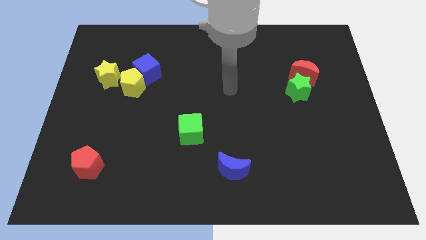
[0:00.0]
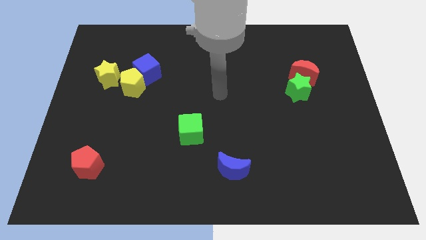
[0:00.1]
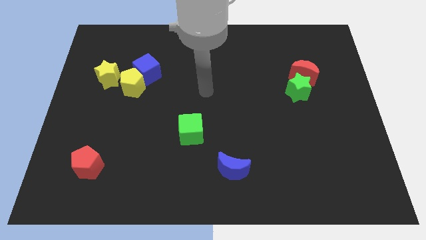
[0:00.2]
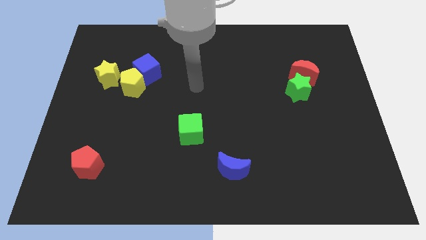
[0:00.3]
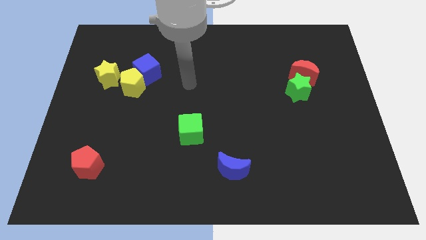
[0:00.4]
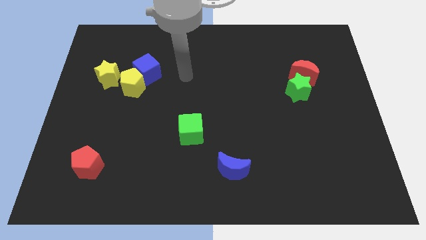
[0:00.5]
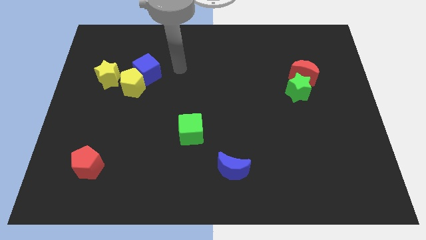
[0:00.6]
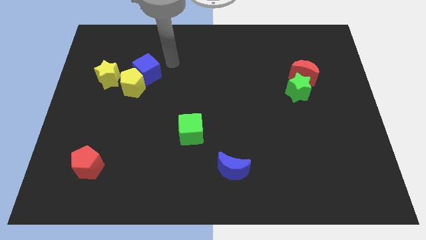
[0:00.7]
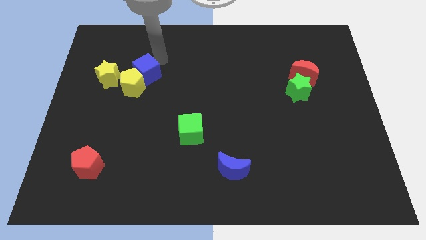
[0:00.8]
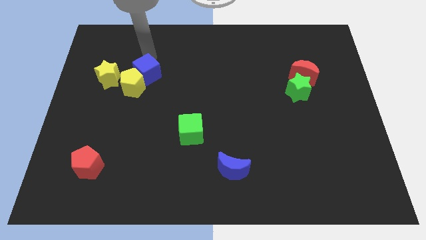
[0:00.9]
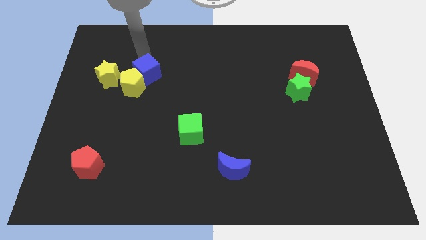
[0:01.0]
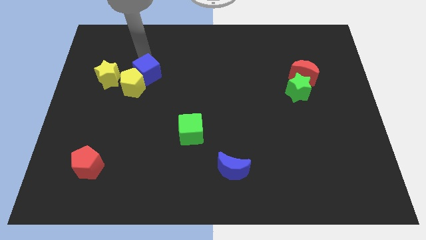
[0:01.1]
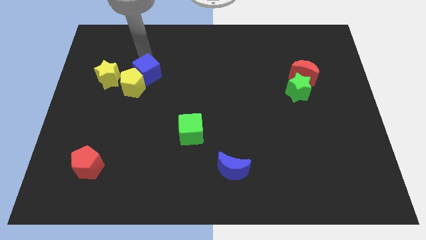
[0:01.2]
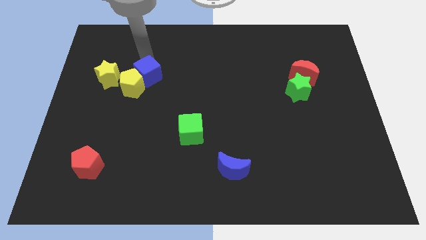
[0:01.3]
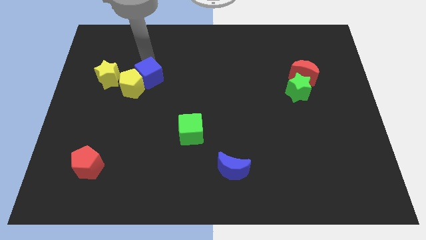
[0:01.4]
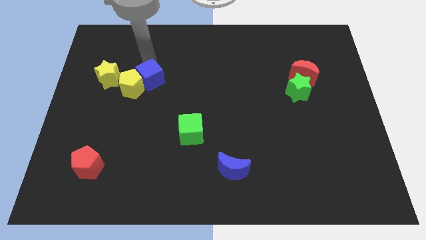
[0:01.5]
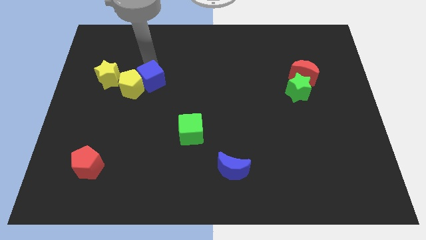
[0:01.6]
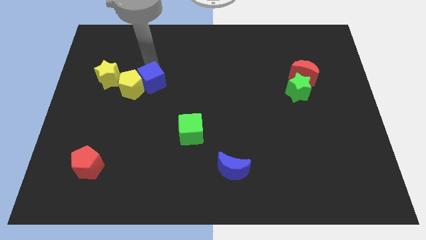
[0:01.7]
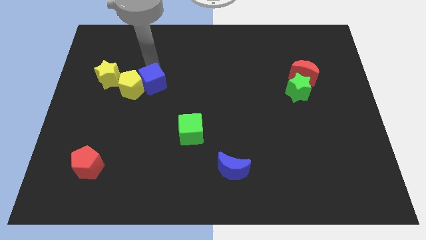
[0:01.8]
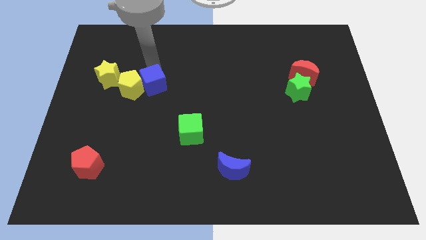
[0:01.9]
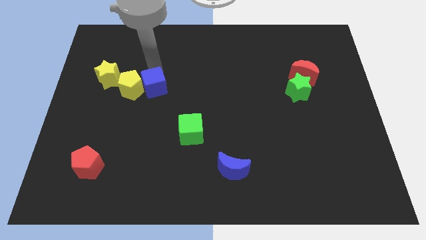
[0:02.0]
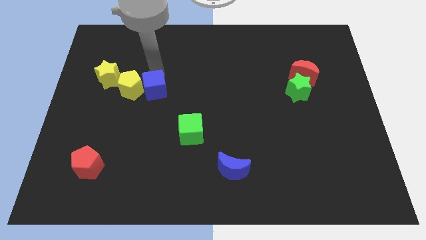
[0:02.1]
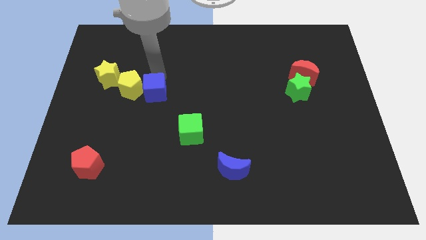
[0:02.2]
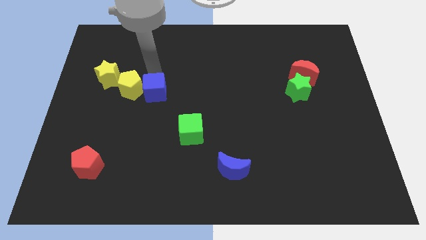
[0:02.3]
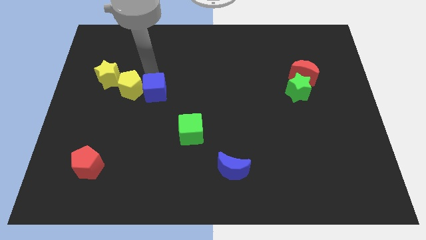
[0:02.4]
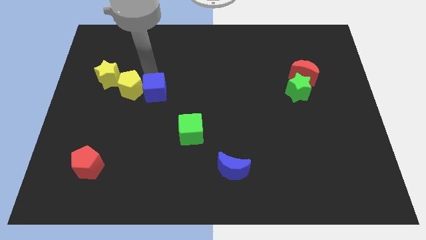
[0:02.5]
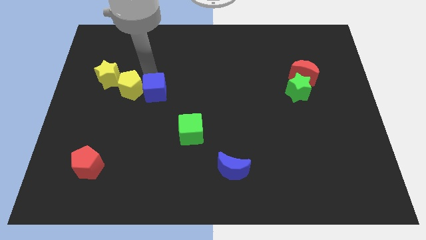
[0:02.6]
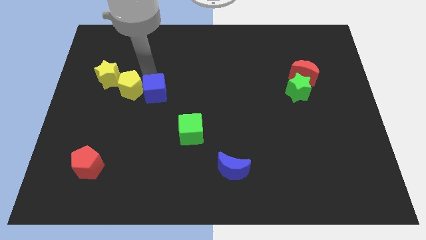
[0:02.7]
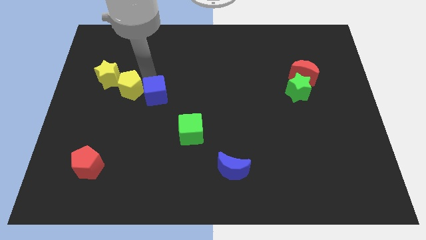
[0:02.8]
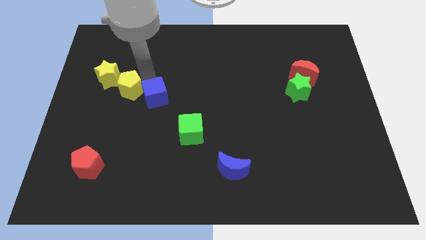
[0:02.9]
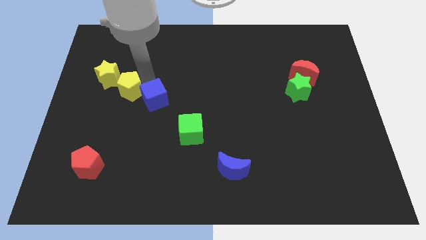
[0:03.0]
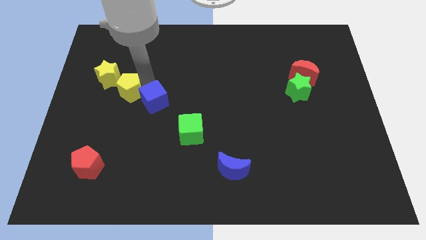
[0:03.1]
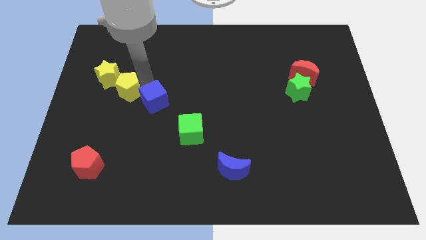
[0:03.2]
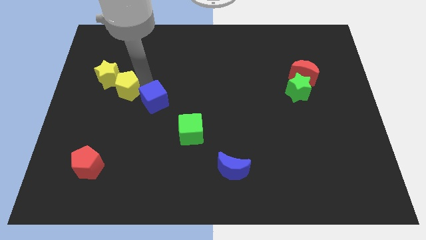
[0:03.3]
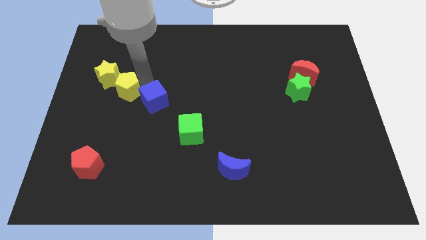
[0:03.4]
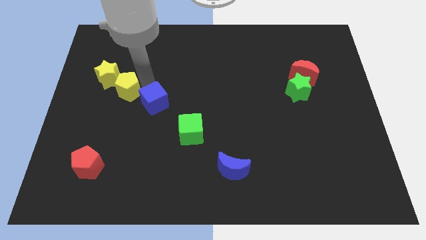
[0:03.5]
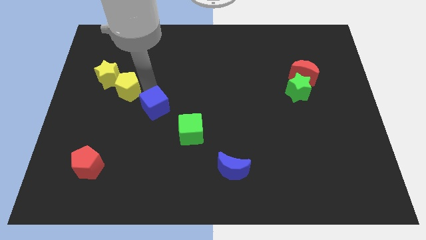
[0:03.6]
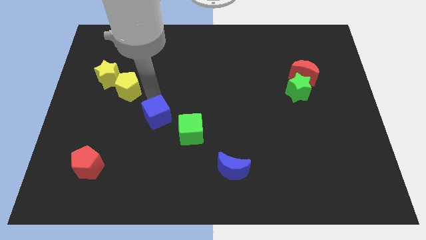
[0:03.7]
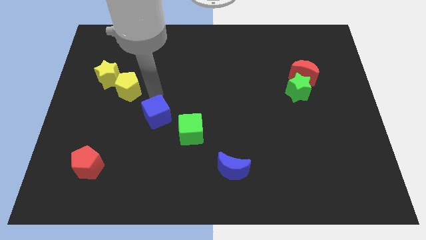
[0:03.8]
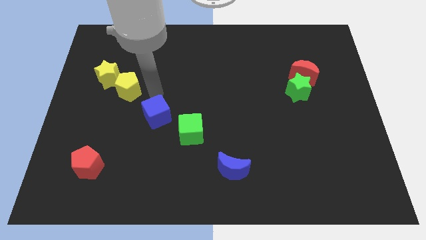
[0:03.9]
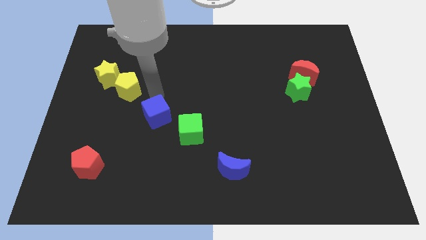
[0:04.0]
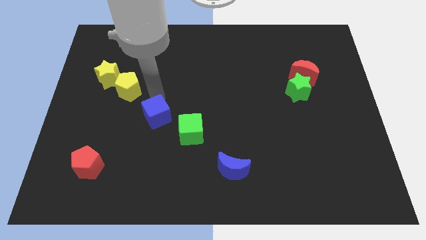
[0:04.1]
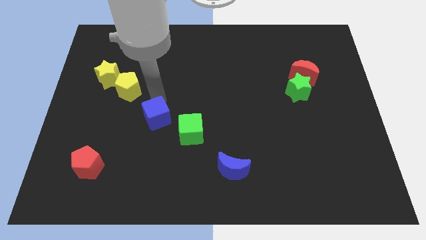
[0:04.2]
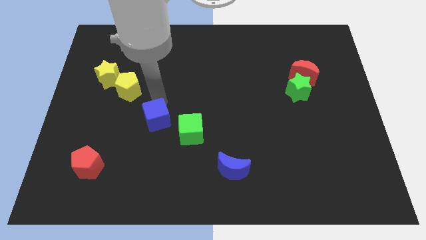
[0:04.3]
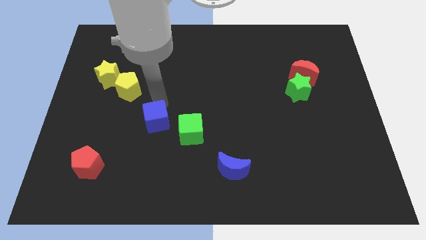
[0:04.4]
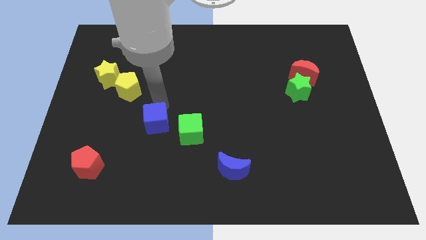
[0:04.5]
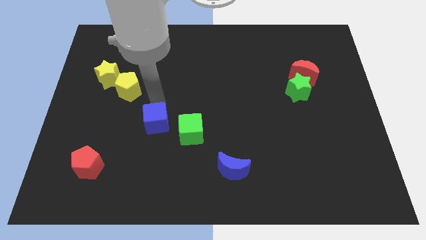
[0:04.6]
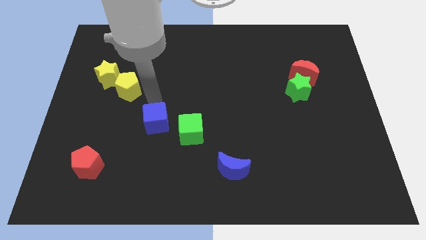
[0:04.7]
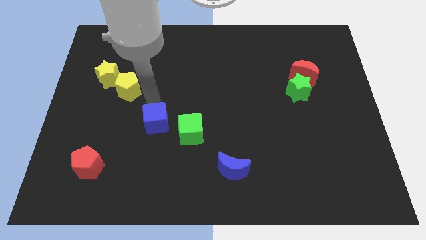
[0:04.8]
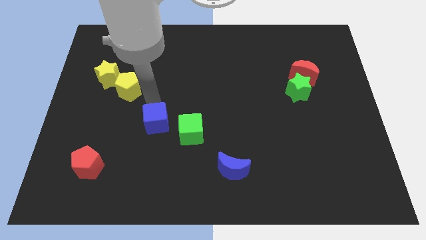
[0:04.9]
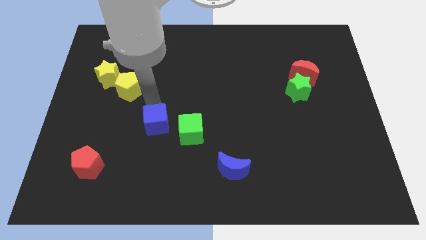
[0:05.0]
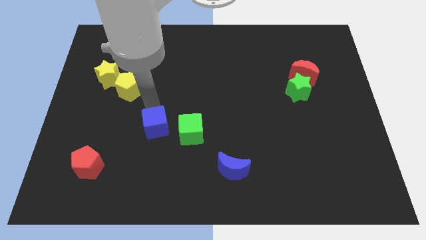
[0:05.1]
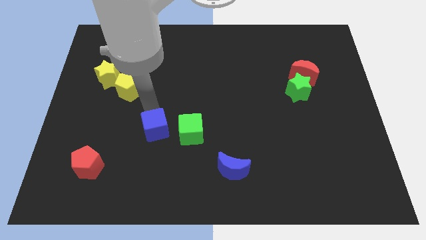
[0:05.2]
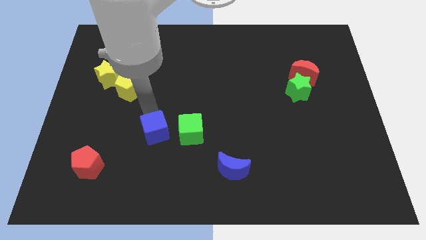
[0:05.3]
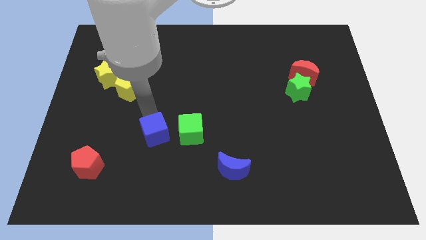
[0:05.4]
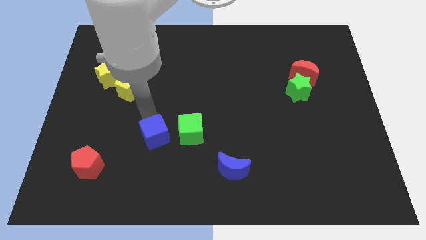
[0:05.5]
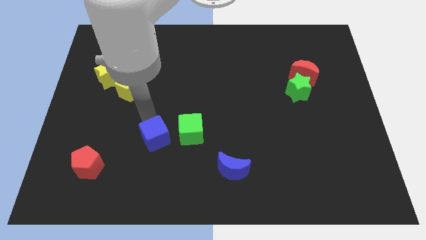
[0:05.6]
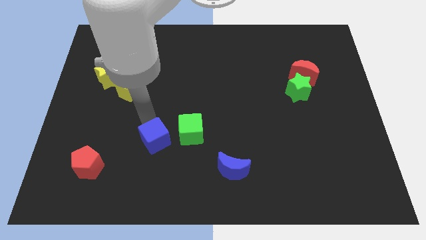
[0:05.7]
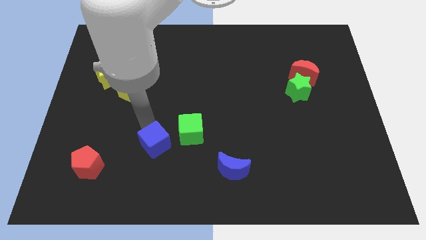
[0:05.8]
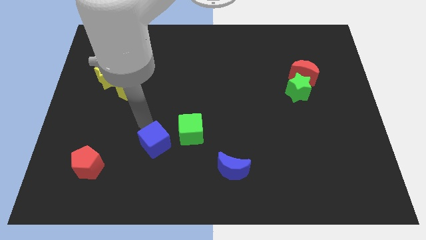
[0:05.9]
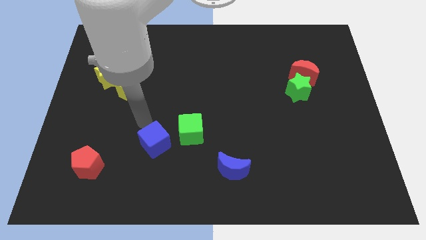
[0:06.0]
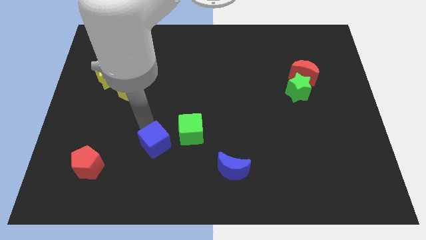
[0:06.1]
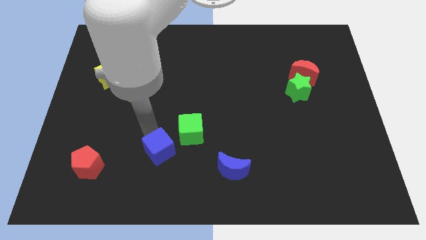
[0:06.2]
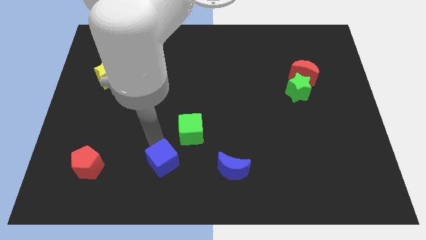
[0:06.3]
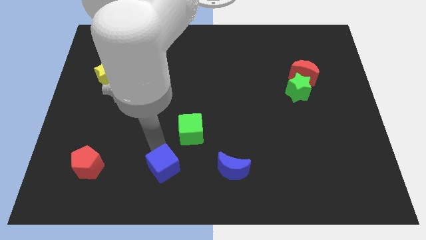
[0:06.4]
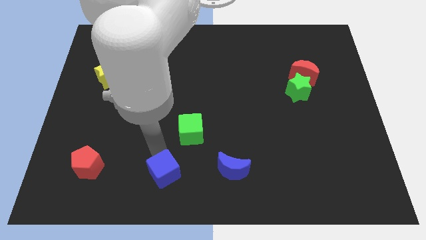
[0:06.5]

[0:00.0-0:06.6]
move the blue cube to the bottom

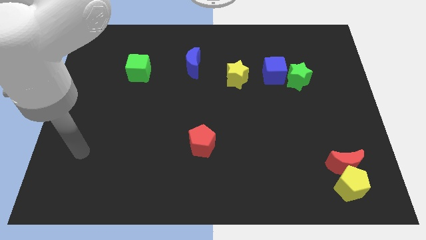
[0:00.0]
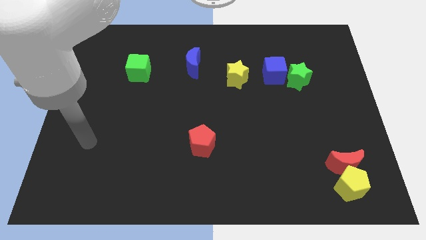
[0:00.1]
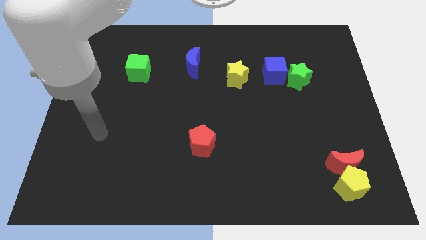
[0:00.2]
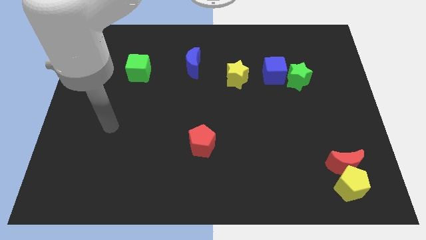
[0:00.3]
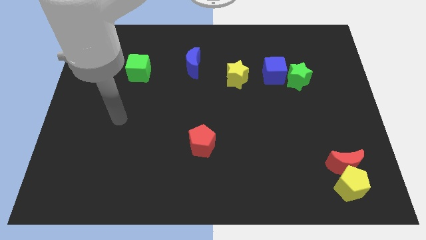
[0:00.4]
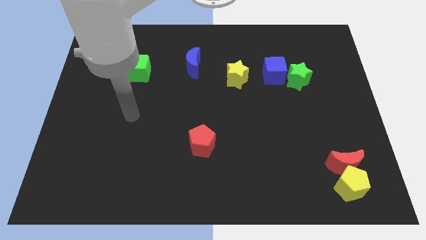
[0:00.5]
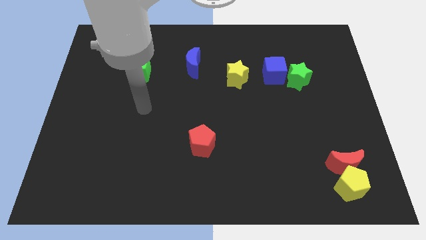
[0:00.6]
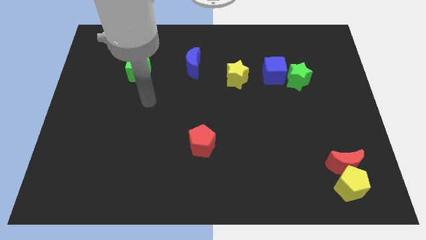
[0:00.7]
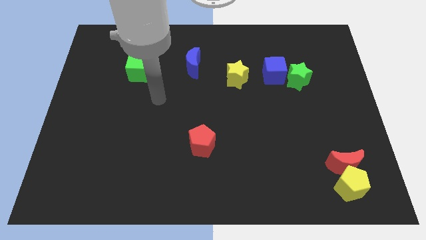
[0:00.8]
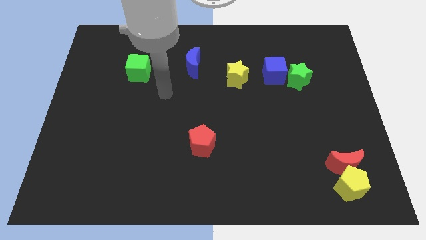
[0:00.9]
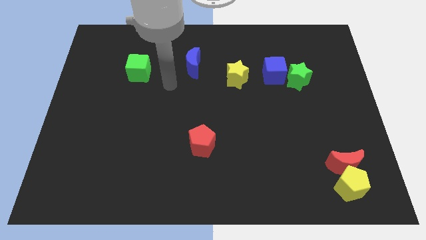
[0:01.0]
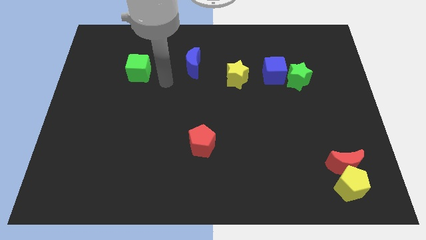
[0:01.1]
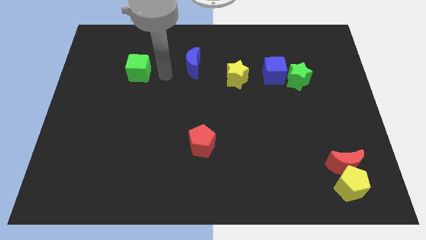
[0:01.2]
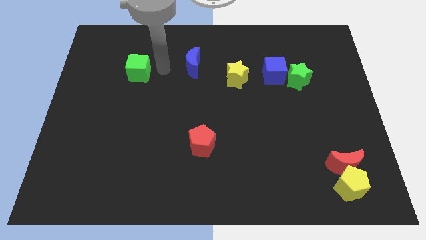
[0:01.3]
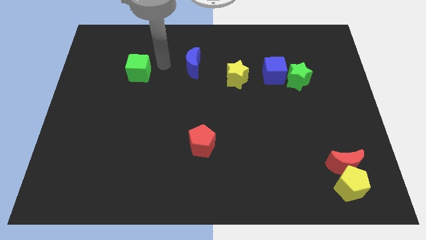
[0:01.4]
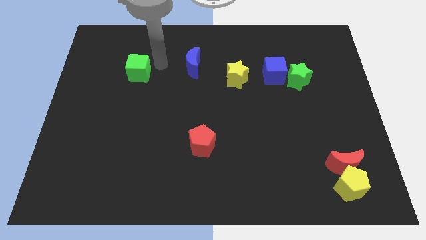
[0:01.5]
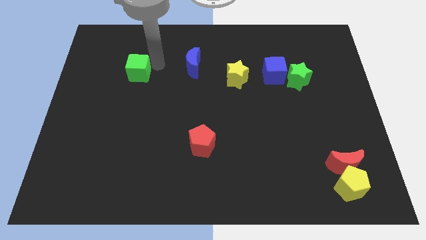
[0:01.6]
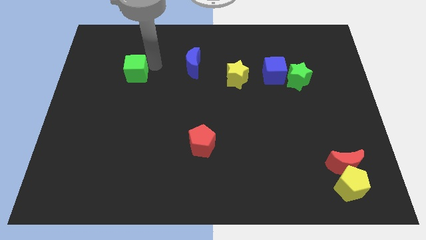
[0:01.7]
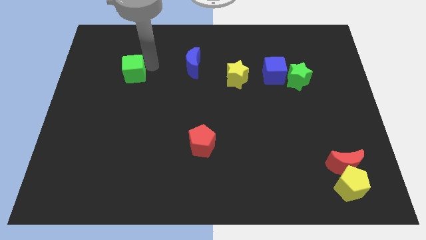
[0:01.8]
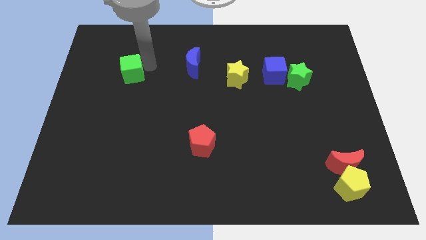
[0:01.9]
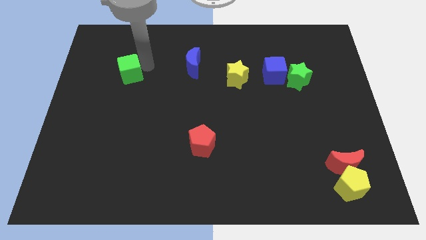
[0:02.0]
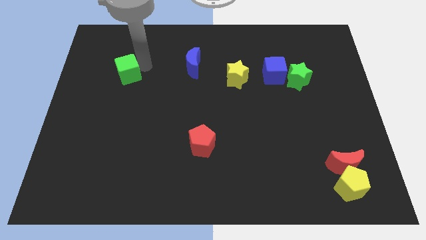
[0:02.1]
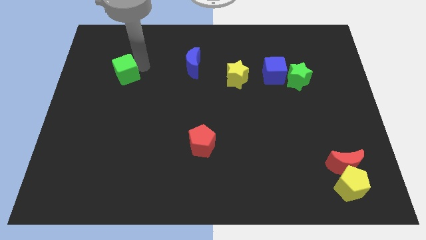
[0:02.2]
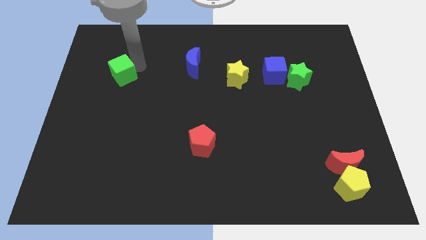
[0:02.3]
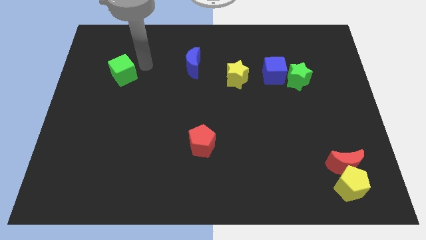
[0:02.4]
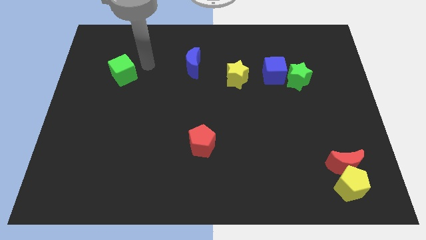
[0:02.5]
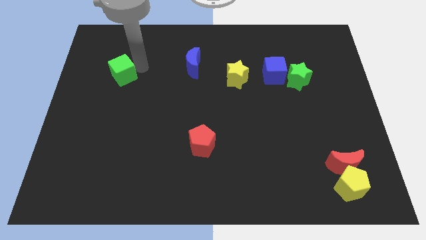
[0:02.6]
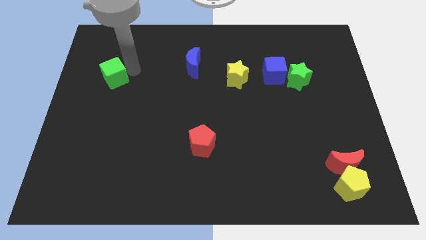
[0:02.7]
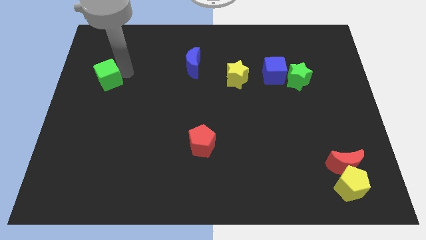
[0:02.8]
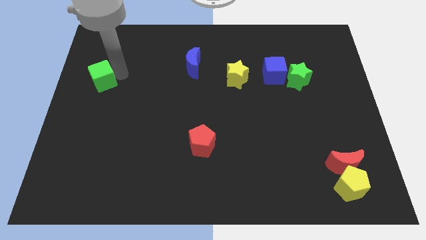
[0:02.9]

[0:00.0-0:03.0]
put the green cube to the center left
